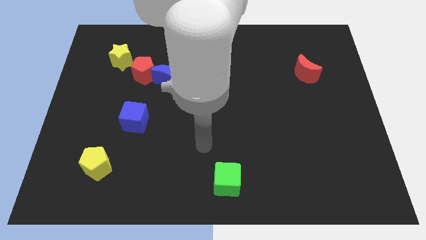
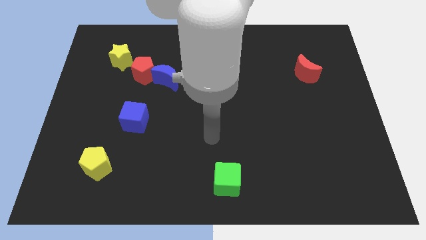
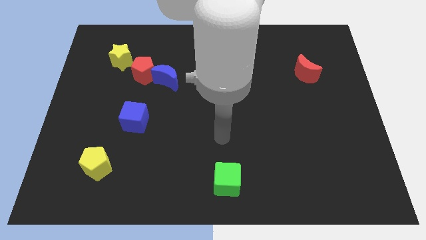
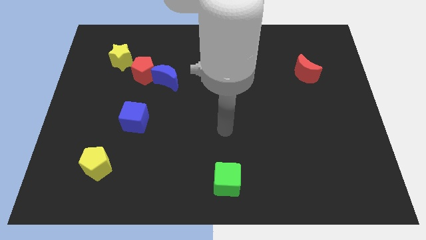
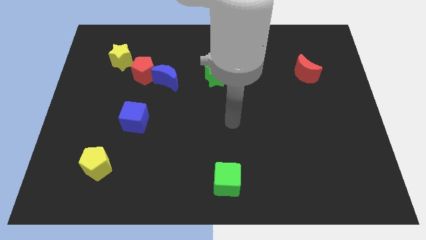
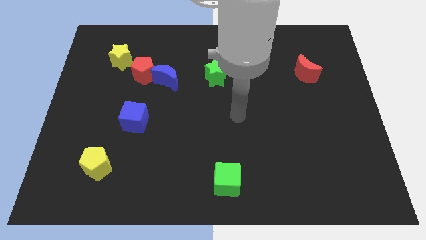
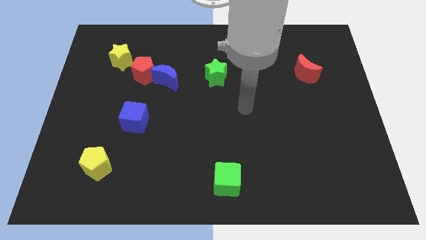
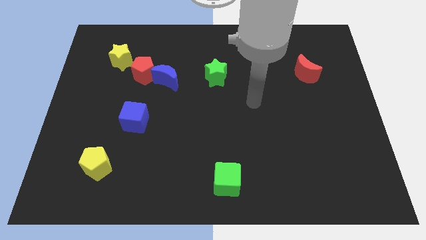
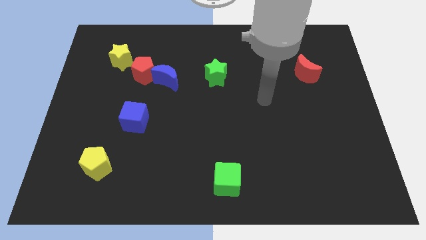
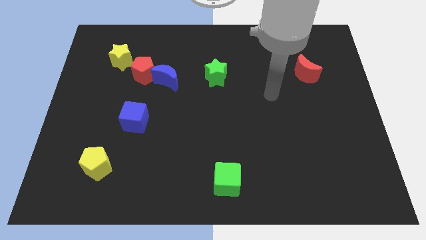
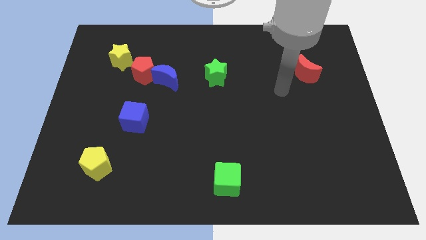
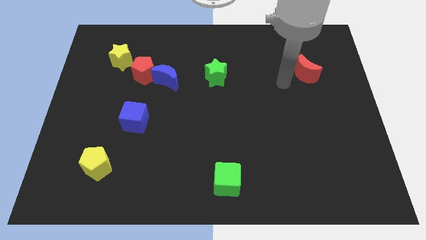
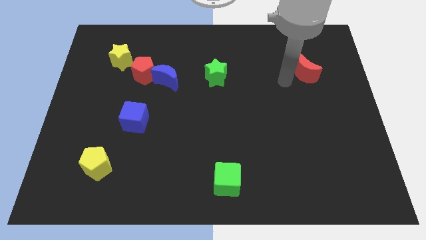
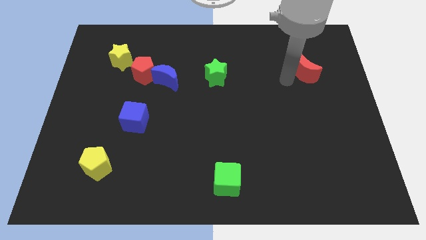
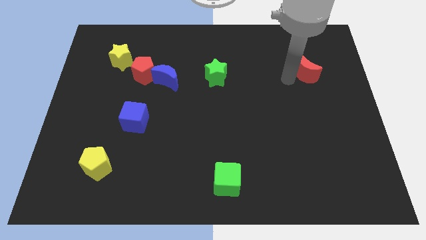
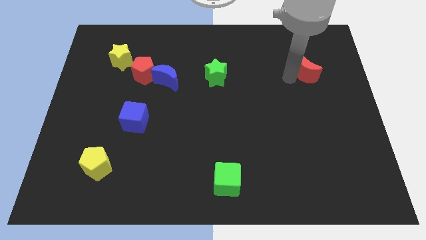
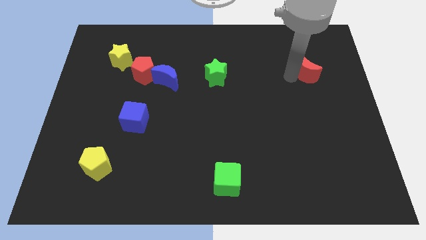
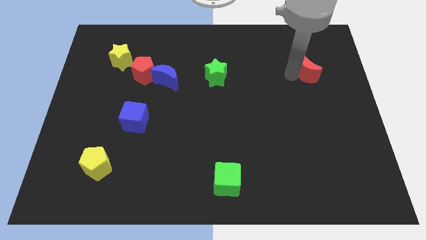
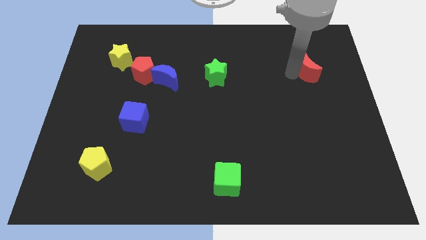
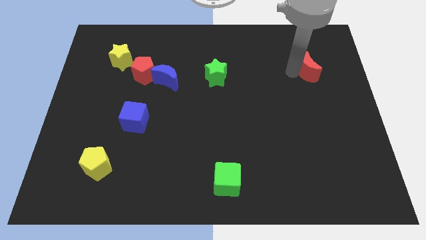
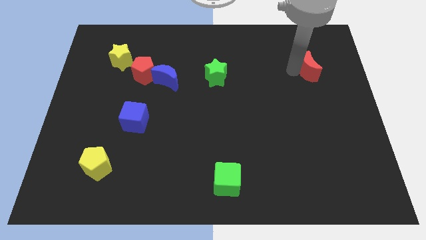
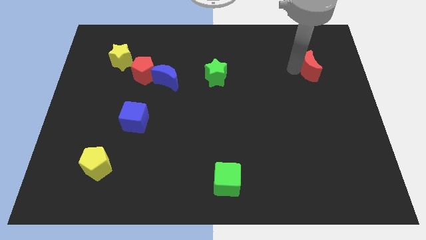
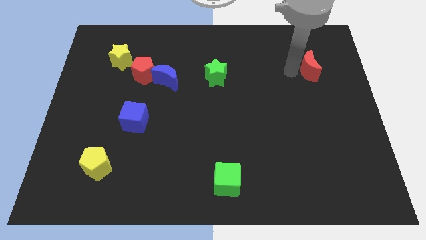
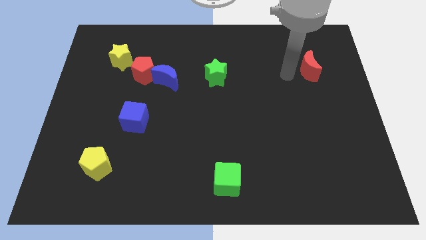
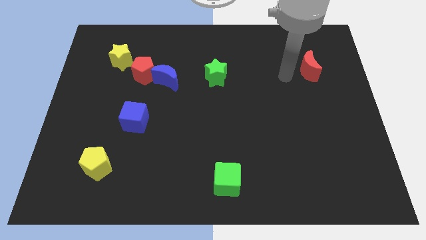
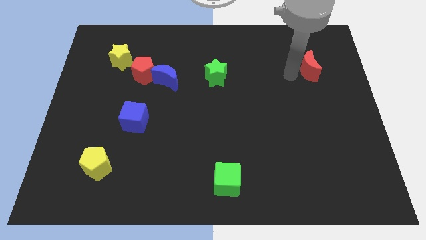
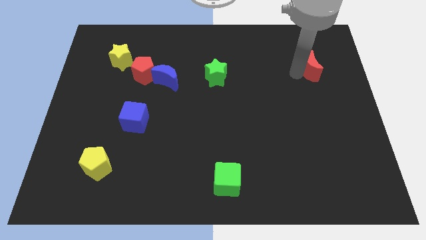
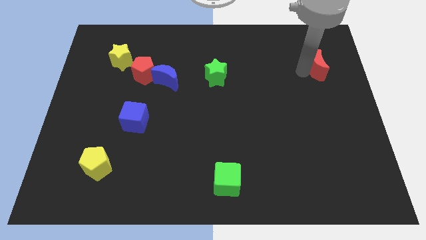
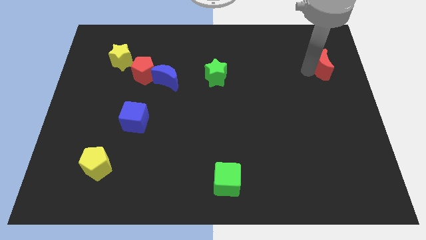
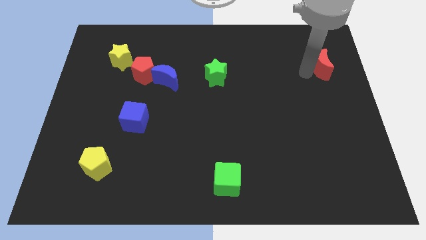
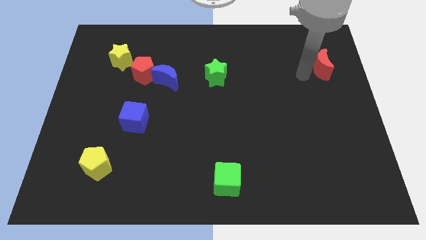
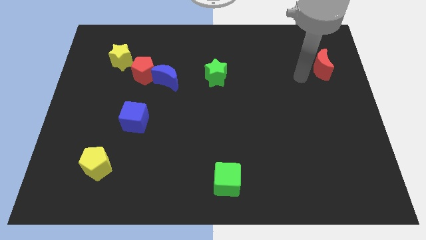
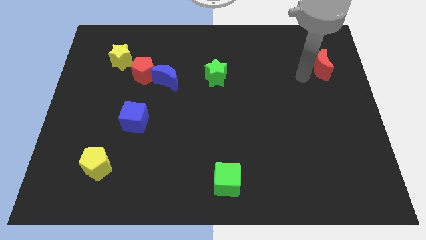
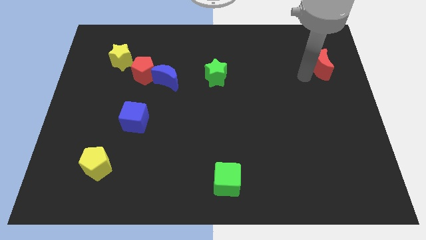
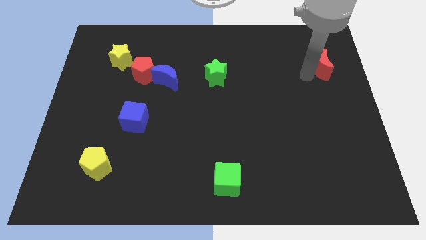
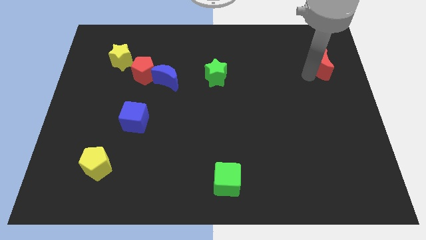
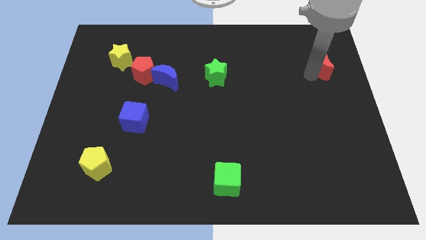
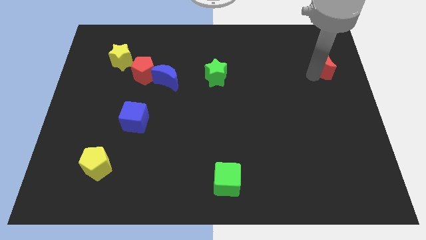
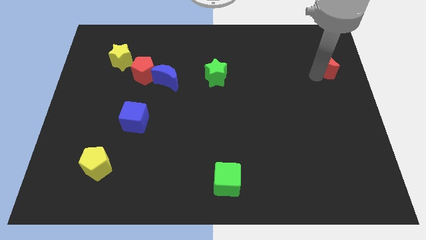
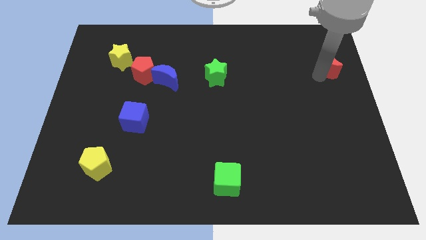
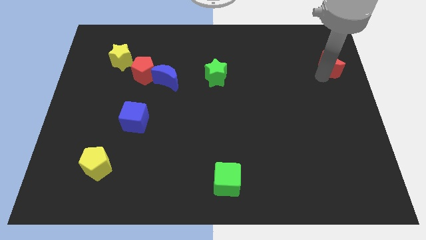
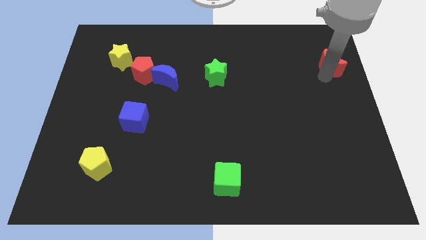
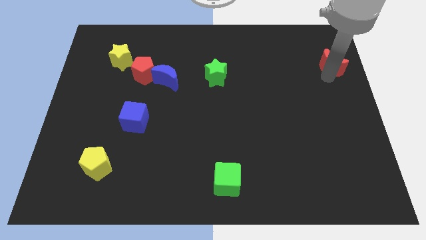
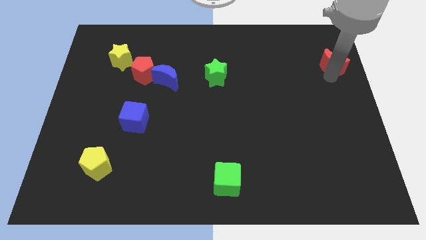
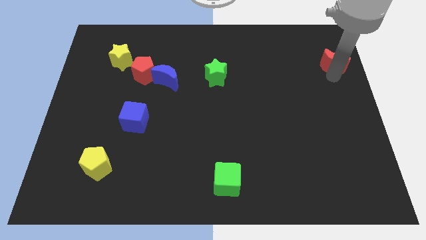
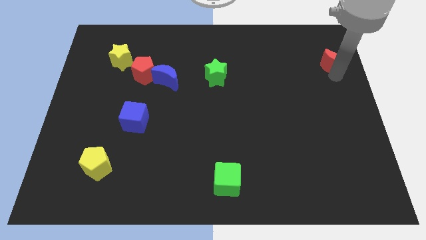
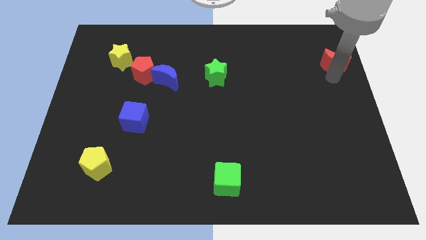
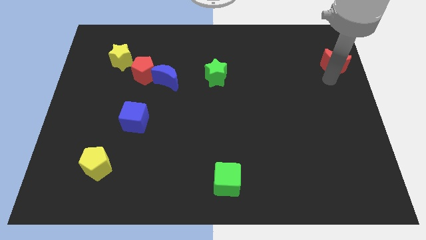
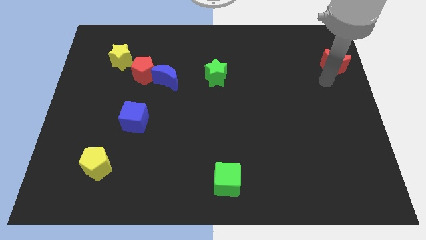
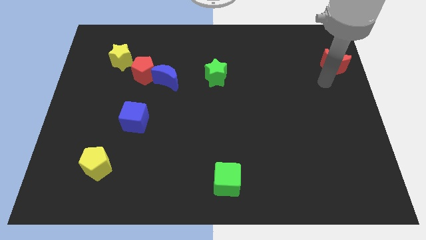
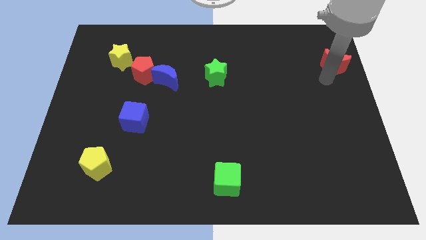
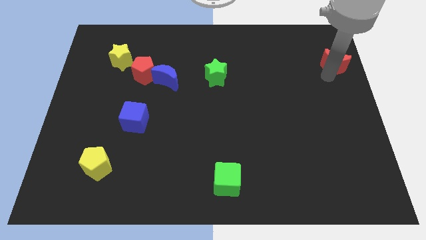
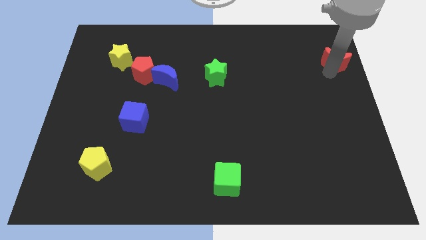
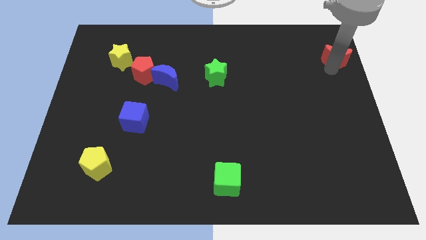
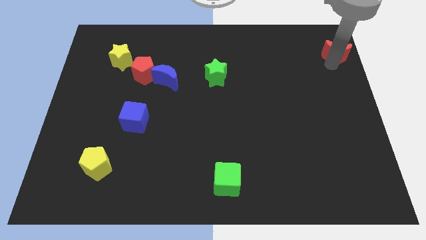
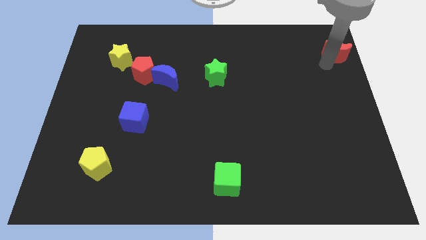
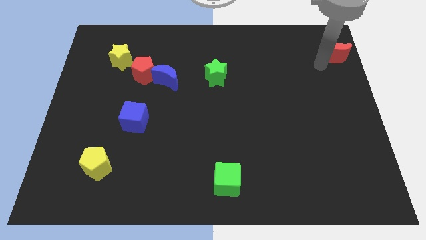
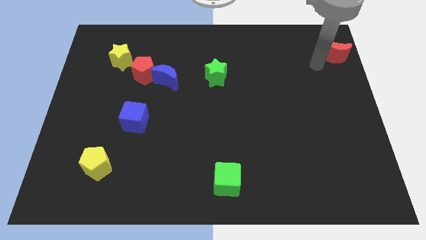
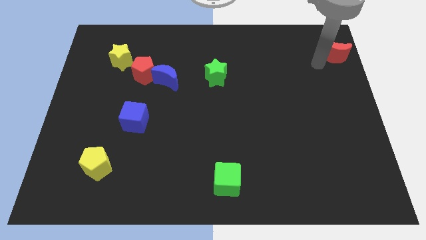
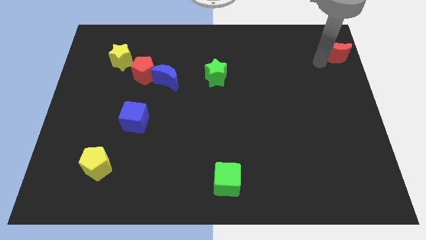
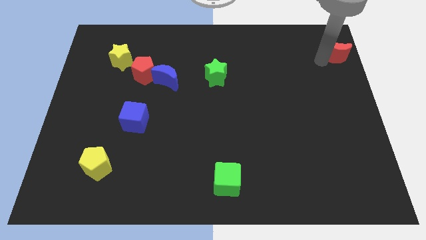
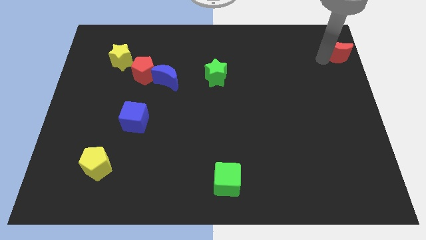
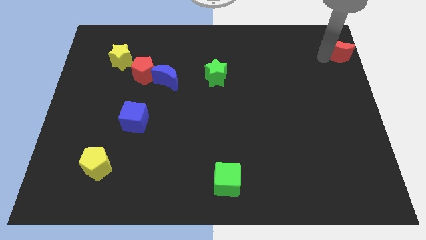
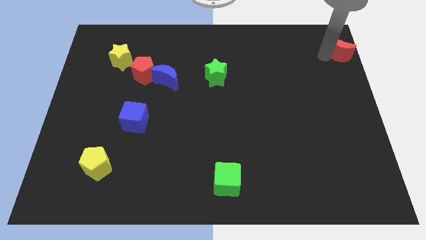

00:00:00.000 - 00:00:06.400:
slide the red moon to the top right corner

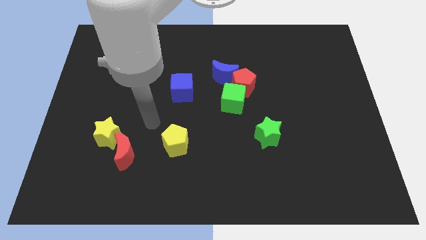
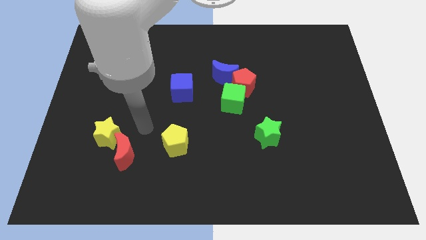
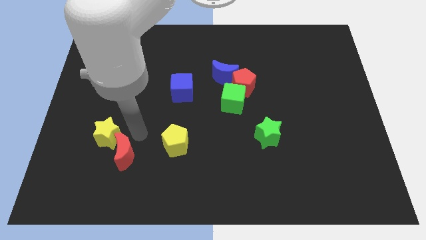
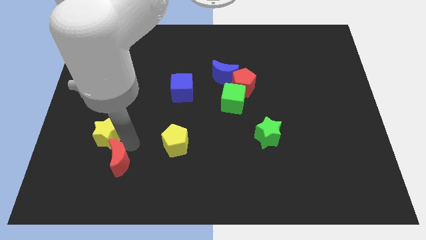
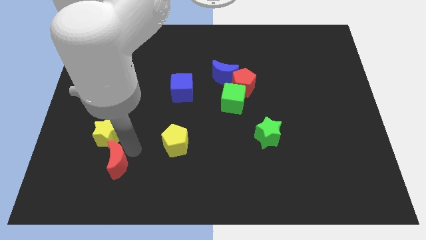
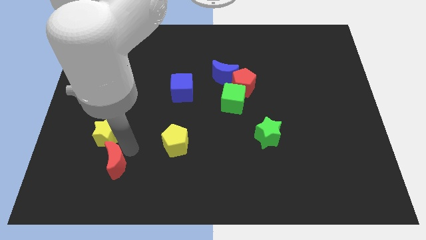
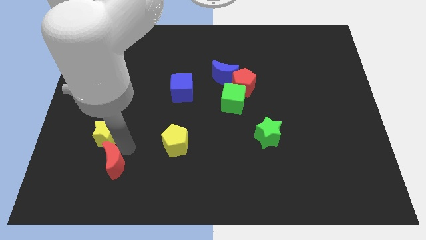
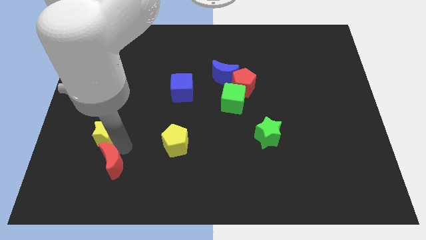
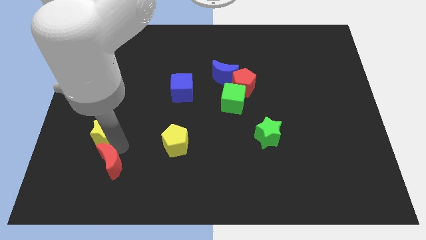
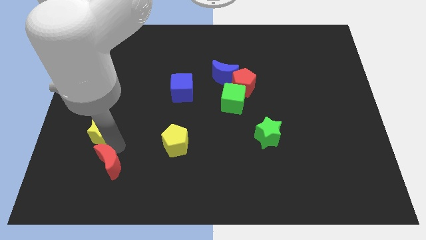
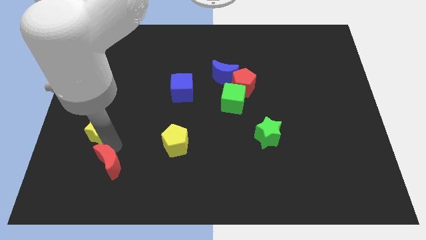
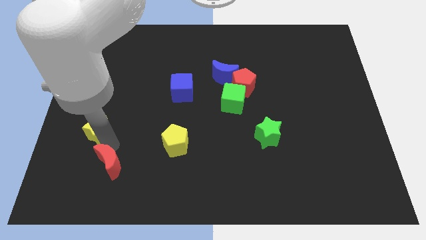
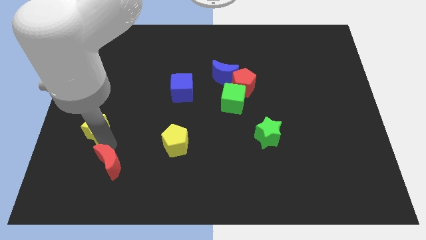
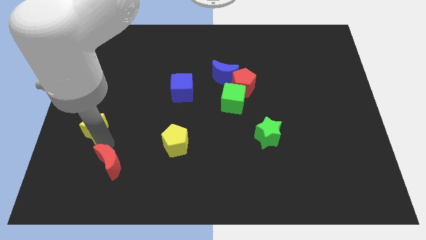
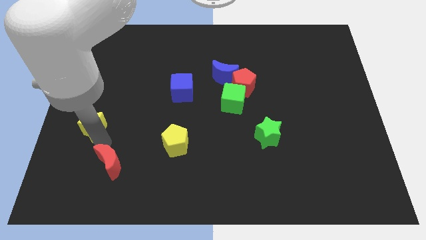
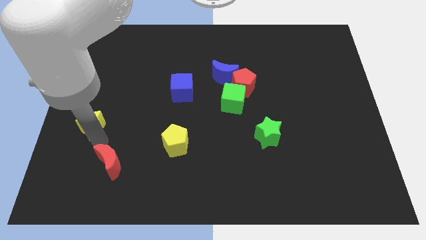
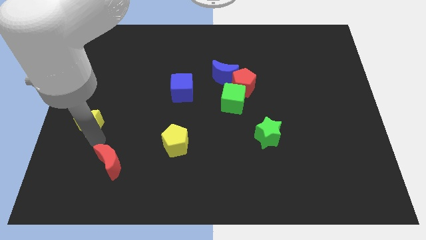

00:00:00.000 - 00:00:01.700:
put the yellow star to the left side of the board
